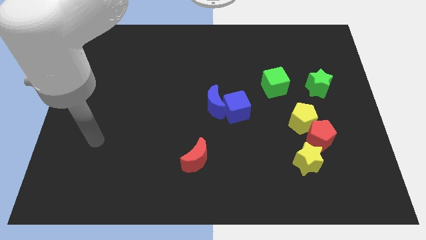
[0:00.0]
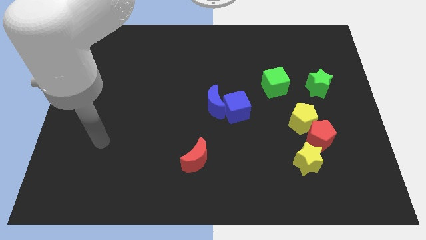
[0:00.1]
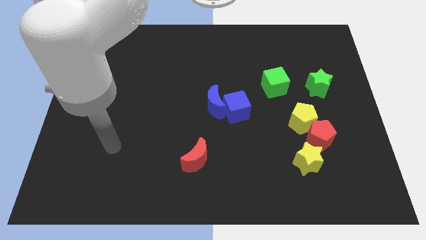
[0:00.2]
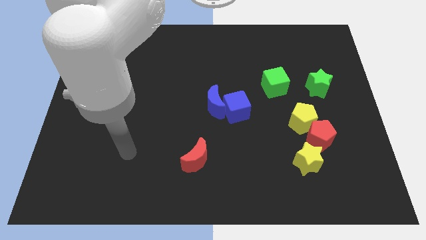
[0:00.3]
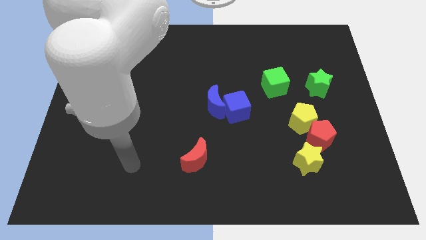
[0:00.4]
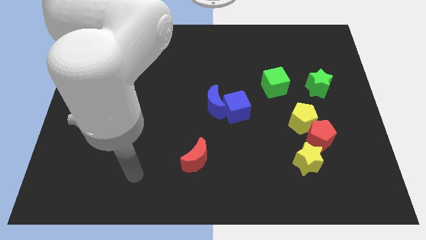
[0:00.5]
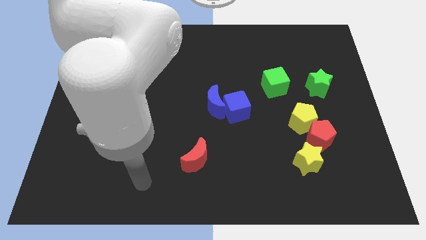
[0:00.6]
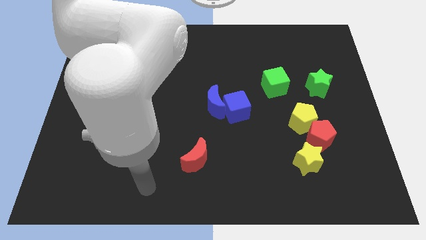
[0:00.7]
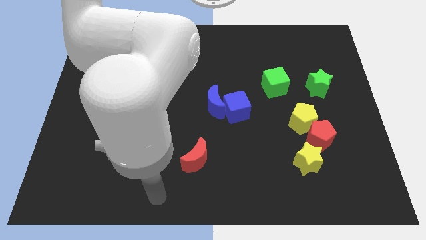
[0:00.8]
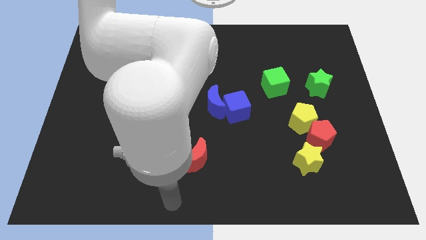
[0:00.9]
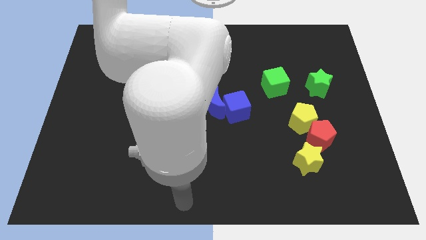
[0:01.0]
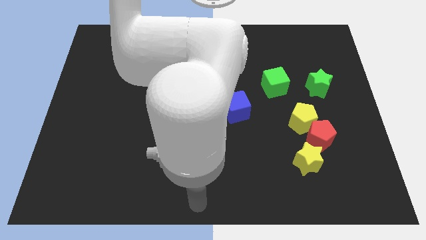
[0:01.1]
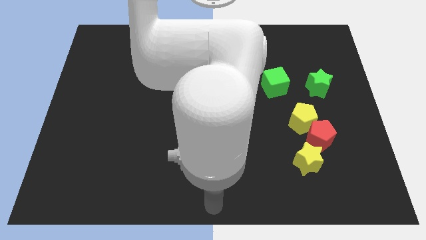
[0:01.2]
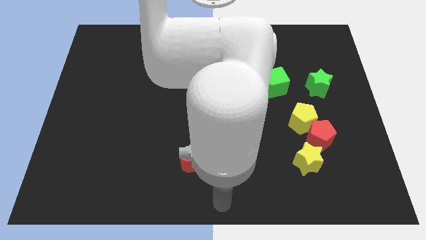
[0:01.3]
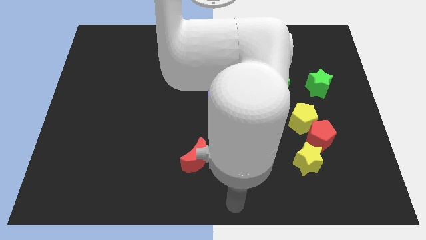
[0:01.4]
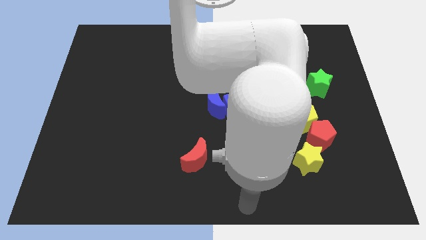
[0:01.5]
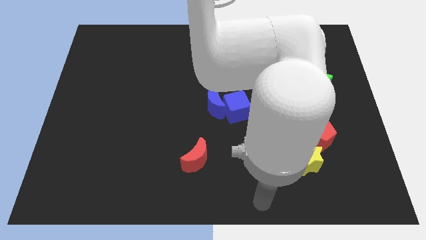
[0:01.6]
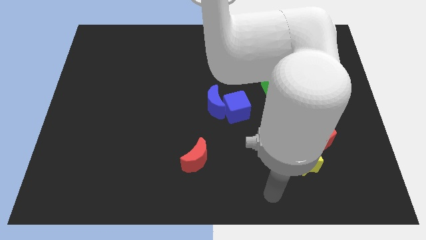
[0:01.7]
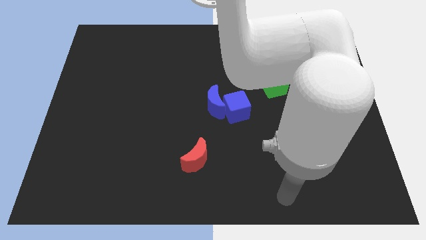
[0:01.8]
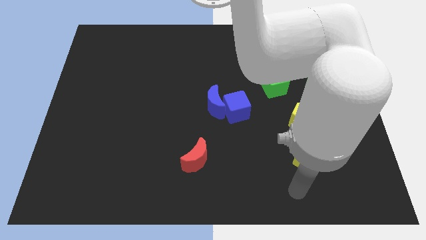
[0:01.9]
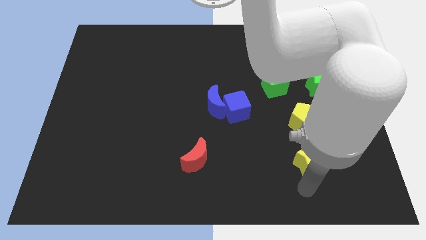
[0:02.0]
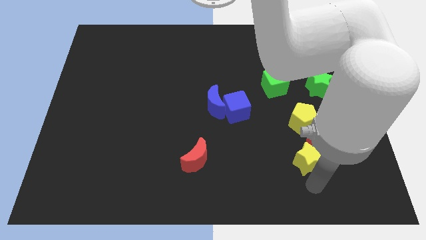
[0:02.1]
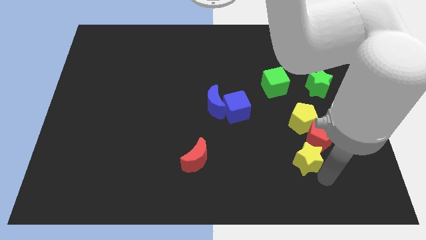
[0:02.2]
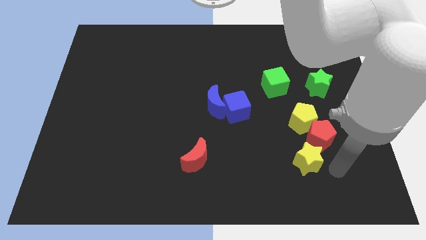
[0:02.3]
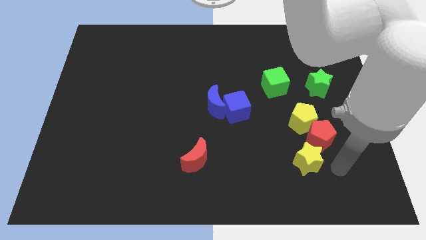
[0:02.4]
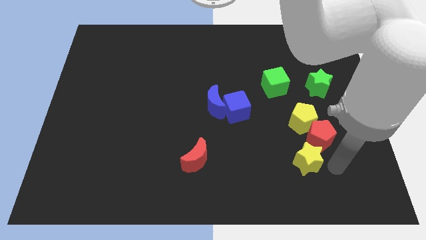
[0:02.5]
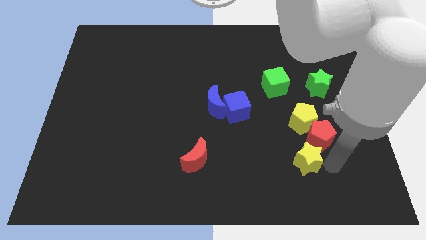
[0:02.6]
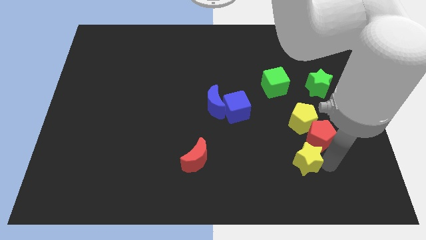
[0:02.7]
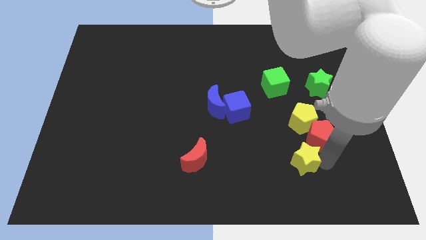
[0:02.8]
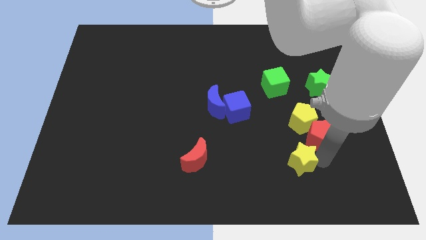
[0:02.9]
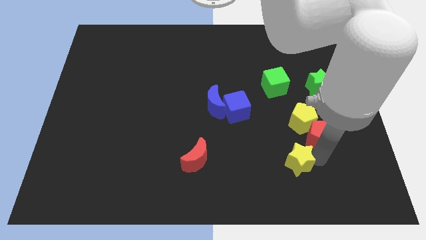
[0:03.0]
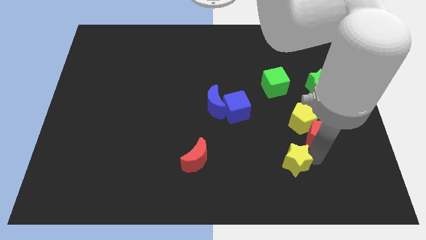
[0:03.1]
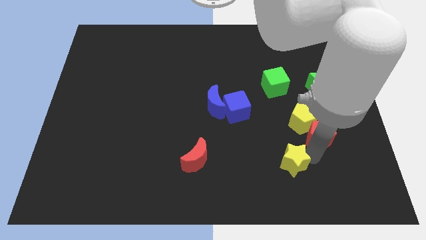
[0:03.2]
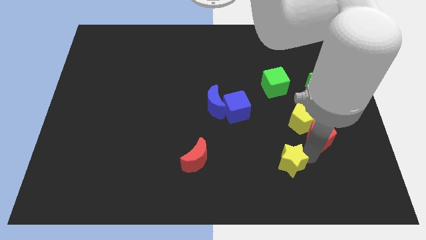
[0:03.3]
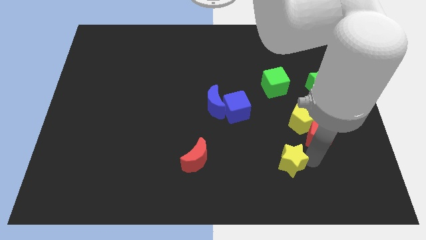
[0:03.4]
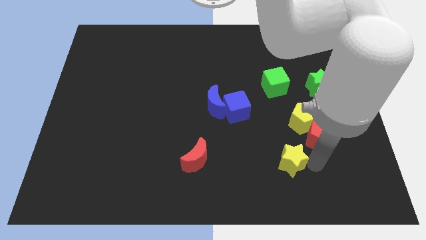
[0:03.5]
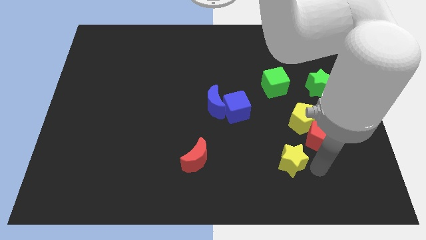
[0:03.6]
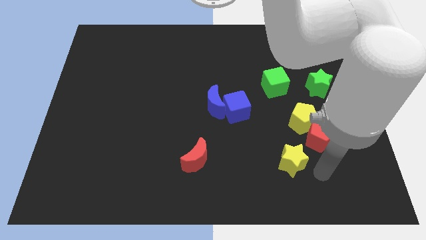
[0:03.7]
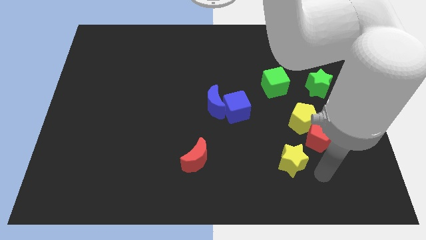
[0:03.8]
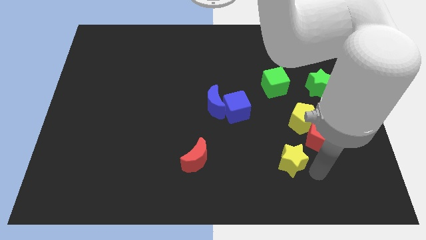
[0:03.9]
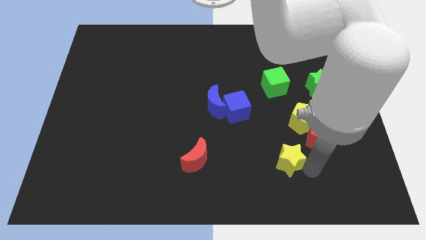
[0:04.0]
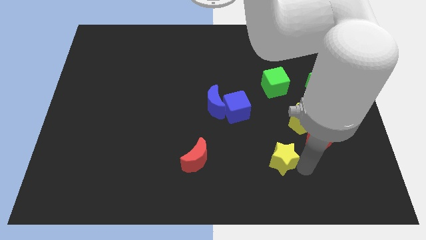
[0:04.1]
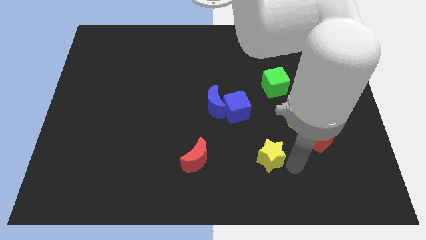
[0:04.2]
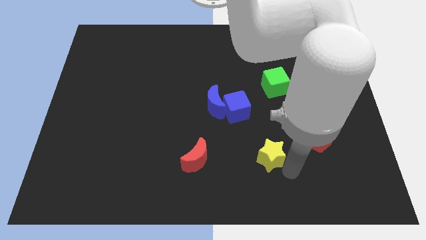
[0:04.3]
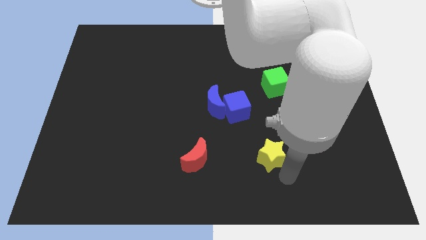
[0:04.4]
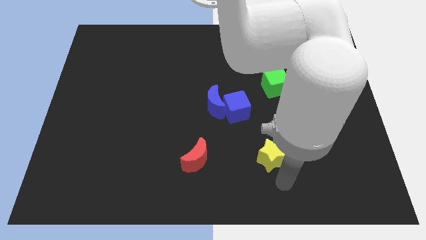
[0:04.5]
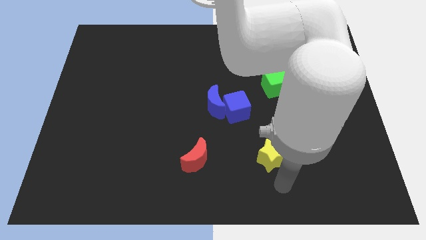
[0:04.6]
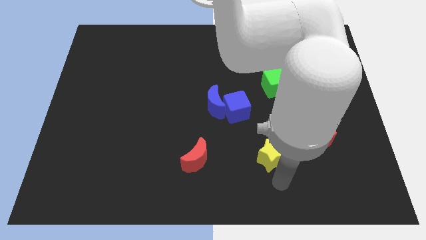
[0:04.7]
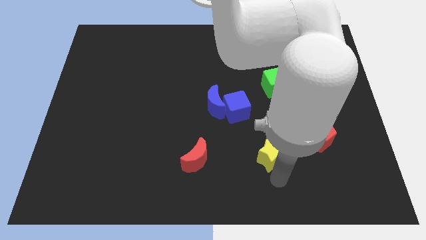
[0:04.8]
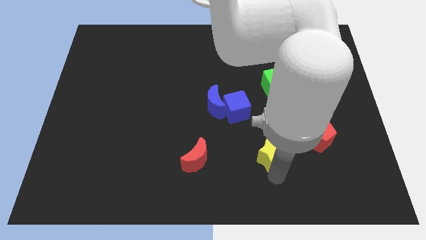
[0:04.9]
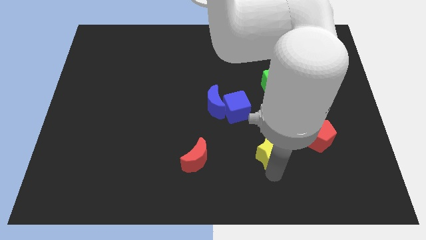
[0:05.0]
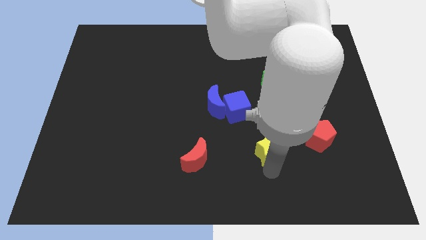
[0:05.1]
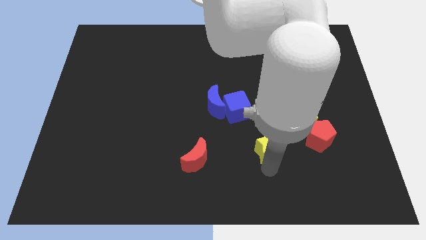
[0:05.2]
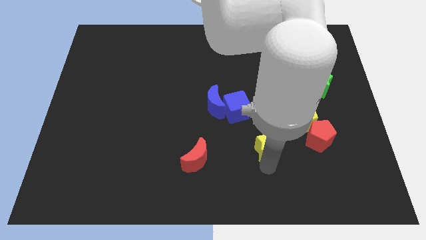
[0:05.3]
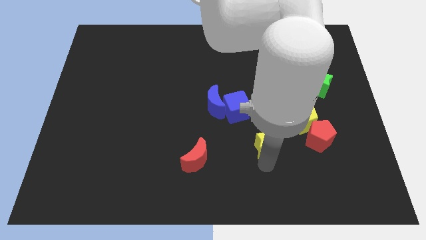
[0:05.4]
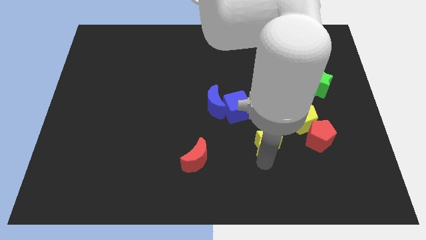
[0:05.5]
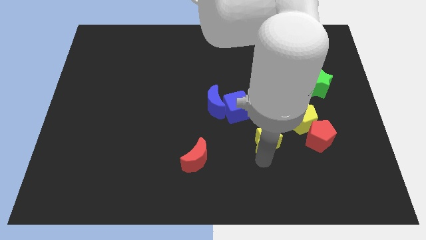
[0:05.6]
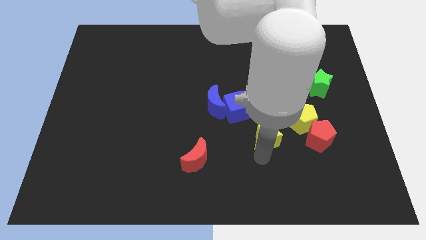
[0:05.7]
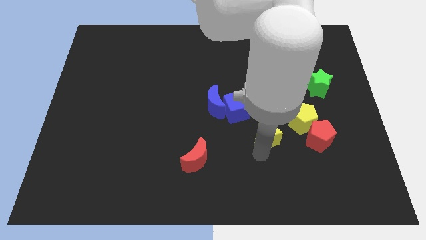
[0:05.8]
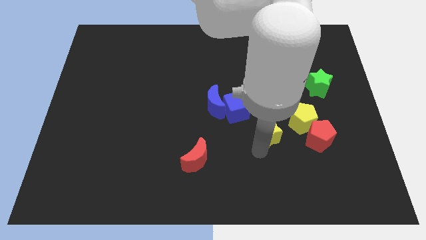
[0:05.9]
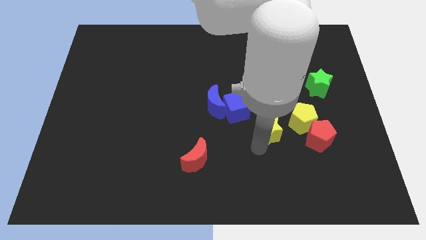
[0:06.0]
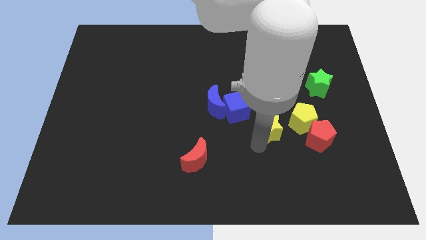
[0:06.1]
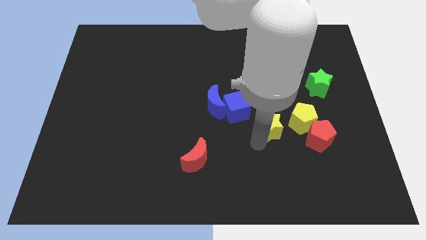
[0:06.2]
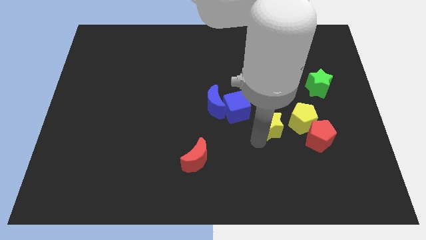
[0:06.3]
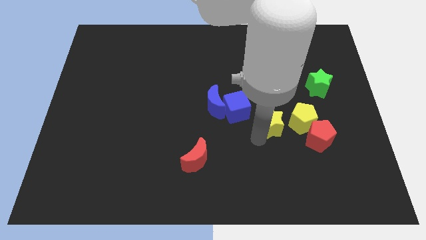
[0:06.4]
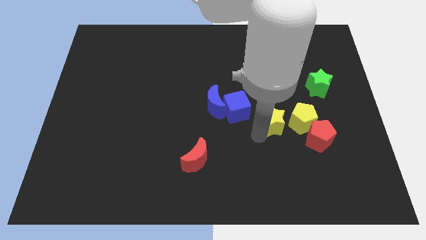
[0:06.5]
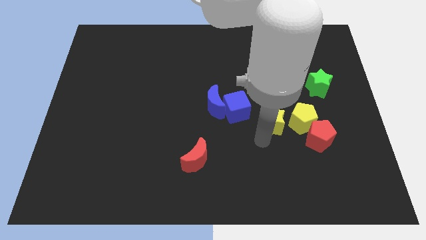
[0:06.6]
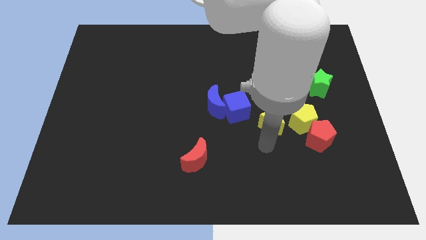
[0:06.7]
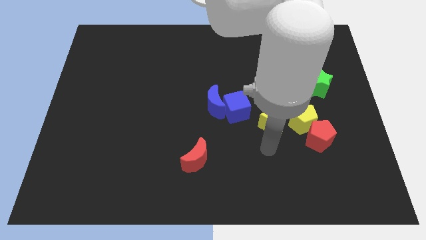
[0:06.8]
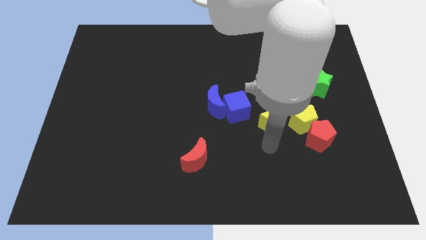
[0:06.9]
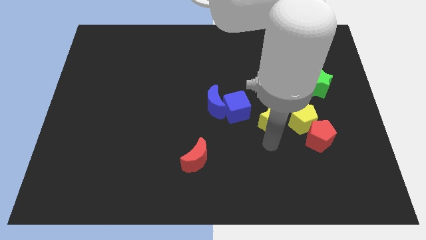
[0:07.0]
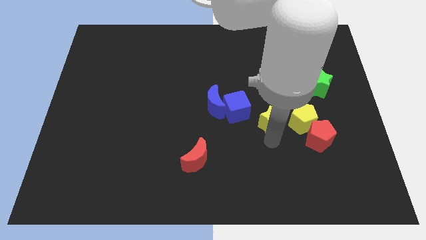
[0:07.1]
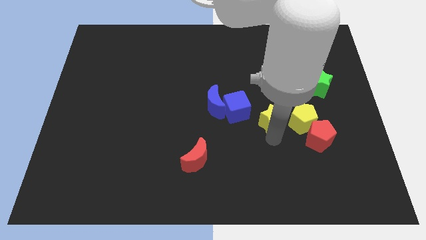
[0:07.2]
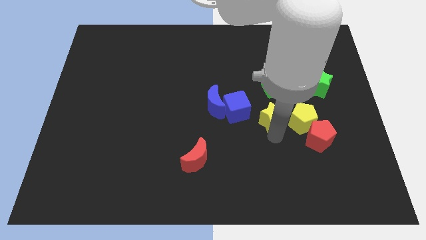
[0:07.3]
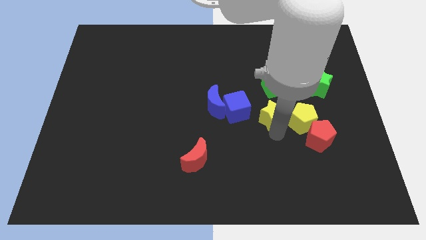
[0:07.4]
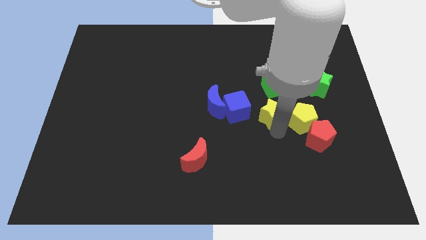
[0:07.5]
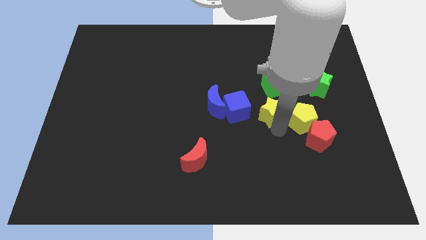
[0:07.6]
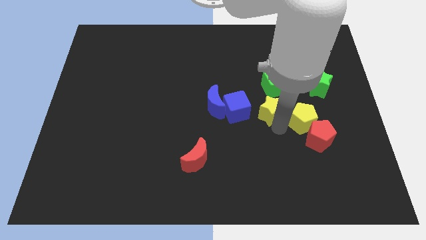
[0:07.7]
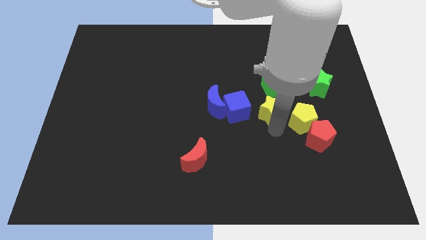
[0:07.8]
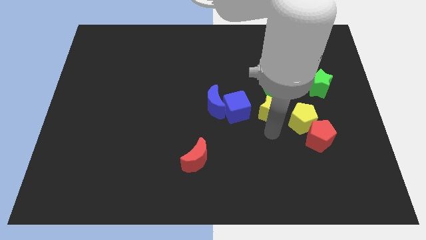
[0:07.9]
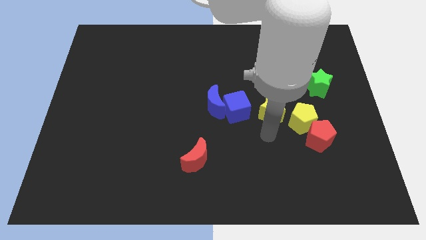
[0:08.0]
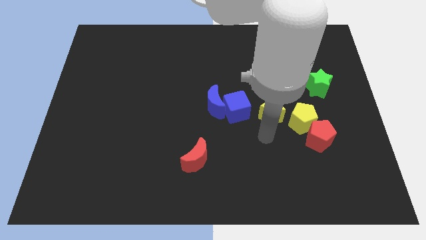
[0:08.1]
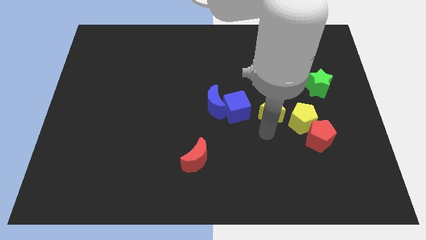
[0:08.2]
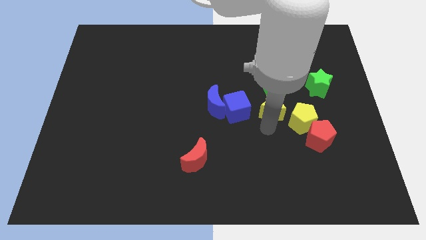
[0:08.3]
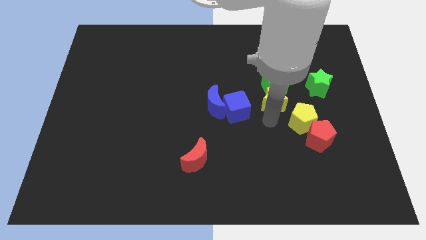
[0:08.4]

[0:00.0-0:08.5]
slide the yellow star next to the green cube

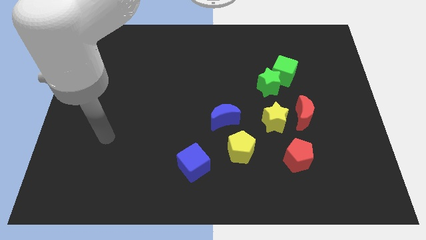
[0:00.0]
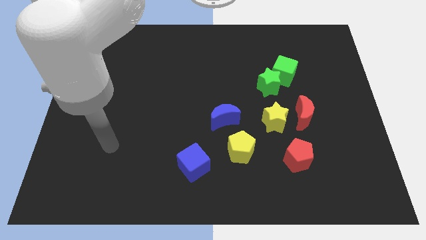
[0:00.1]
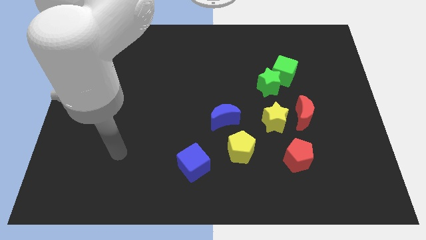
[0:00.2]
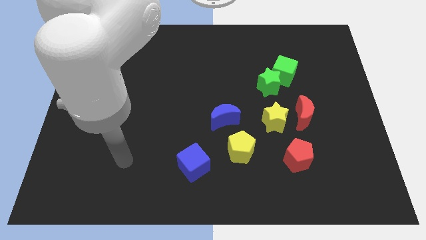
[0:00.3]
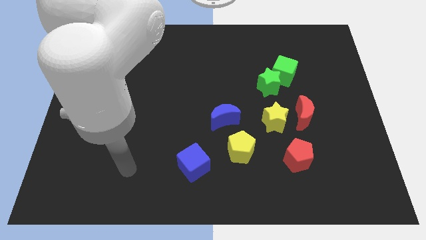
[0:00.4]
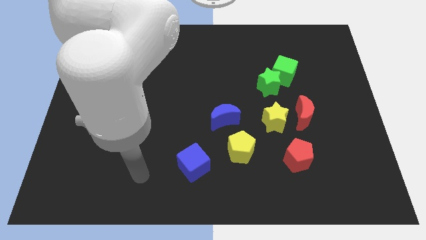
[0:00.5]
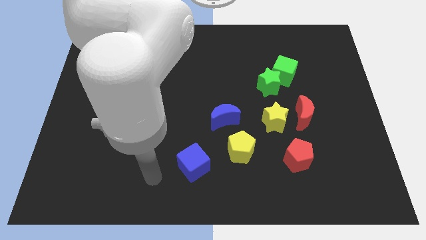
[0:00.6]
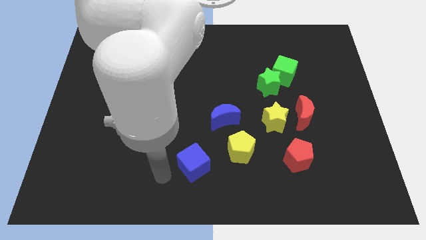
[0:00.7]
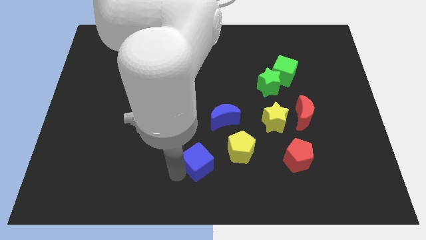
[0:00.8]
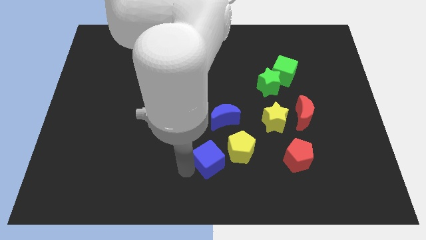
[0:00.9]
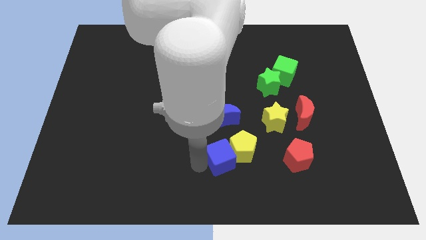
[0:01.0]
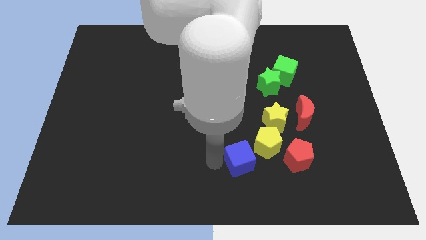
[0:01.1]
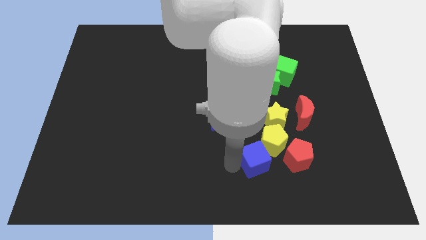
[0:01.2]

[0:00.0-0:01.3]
move the yellow pentagon towards the yellow star
